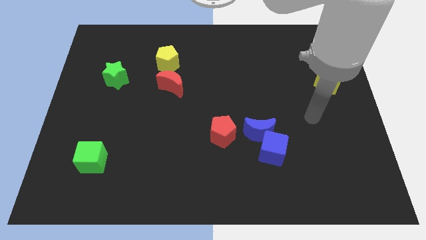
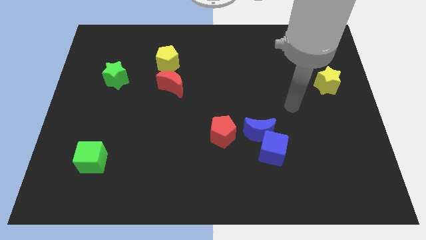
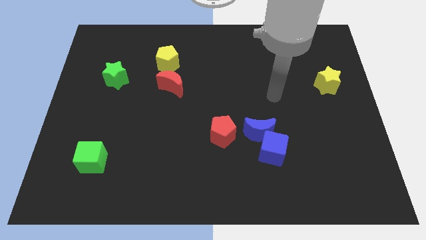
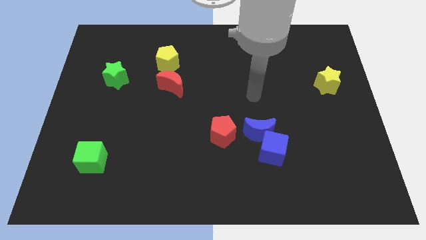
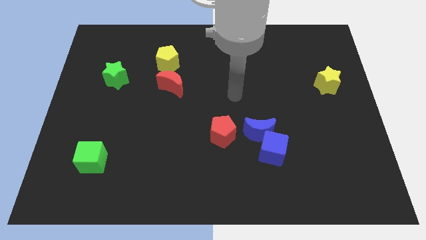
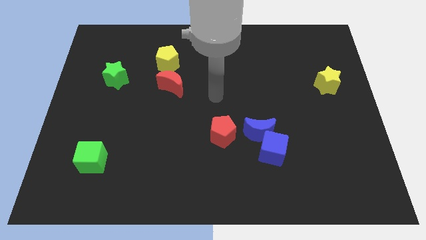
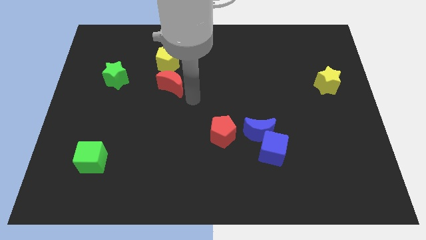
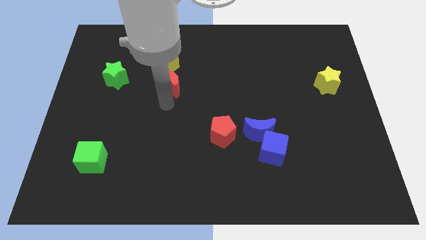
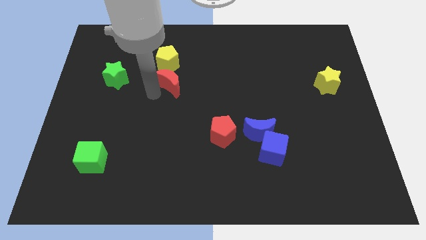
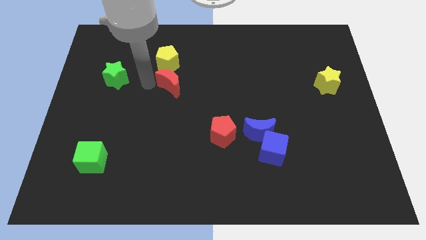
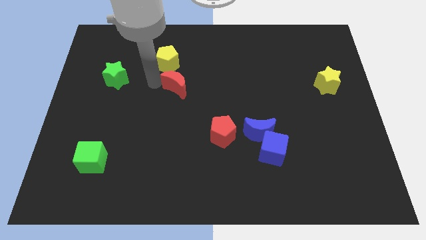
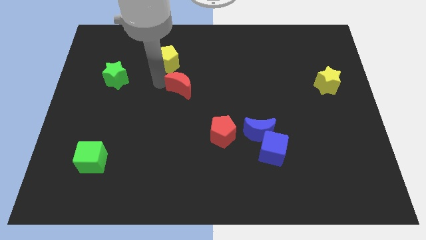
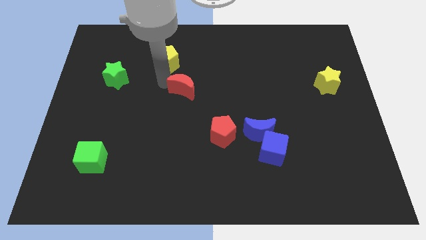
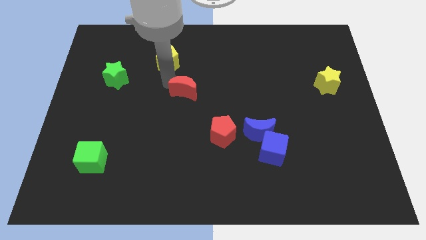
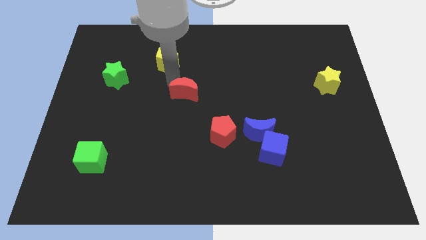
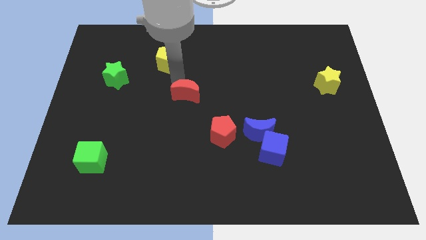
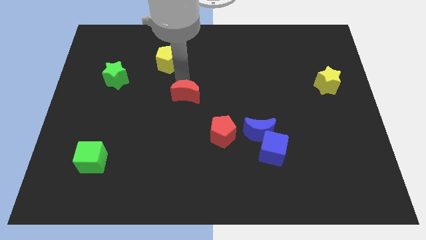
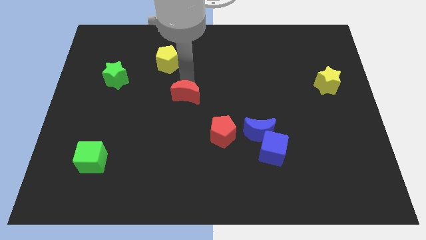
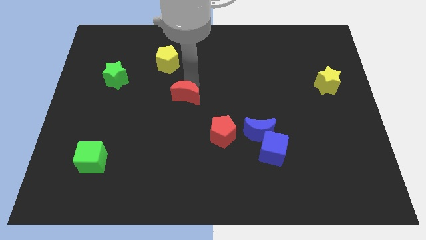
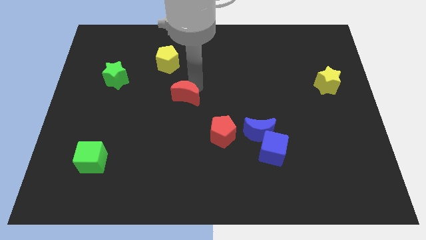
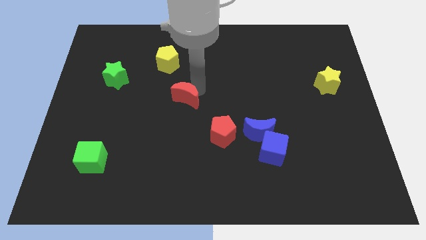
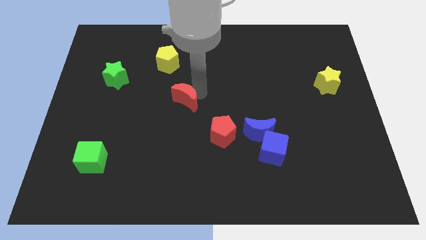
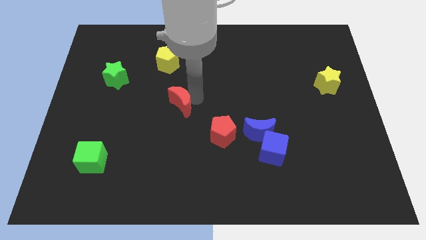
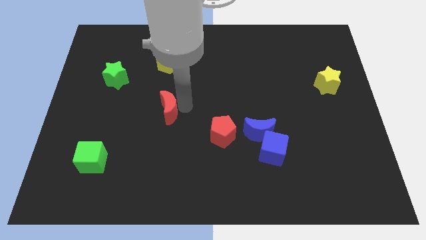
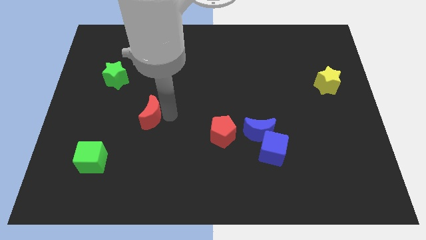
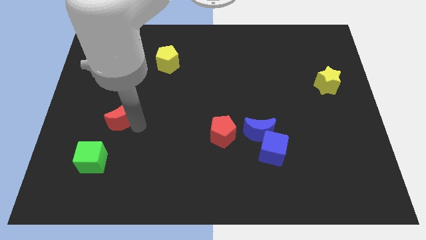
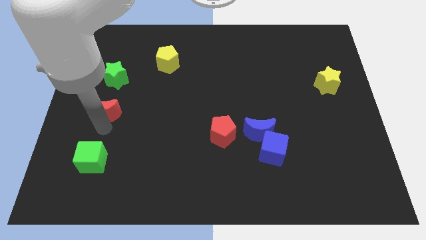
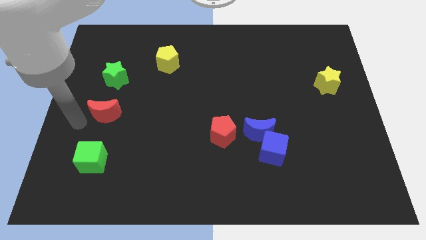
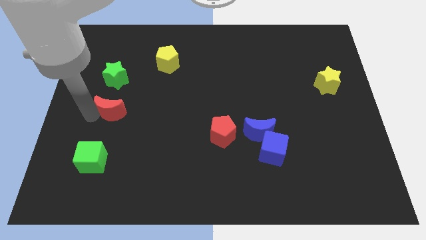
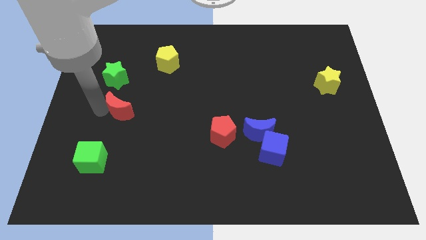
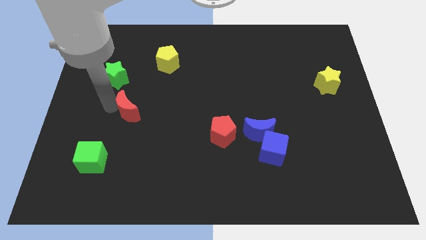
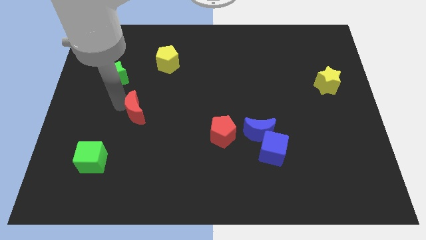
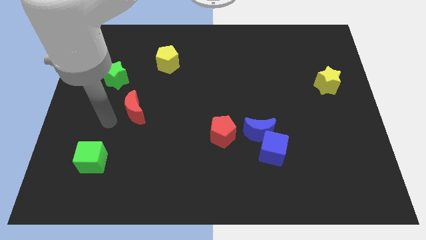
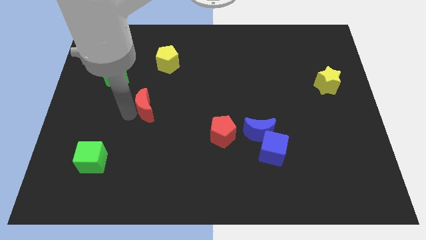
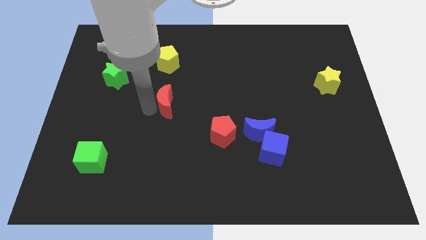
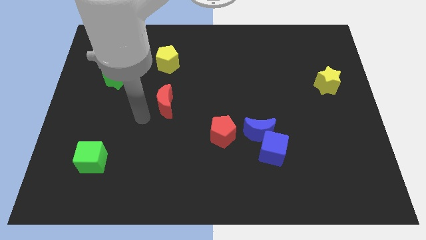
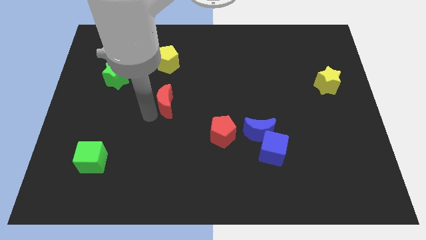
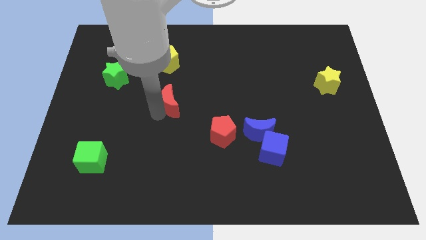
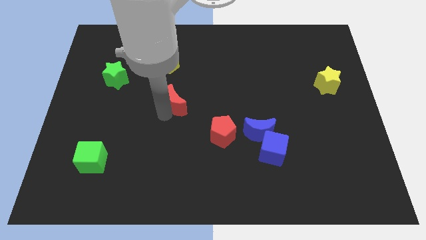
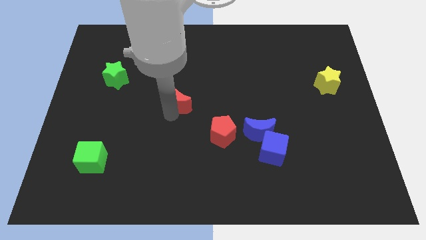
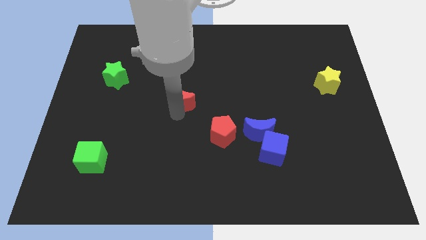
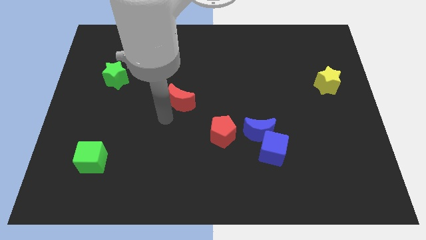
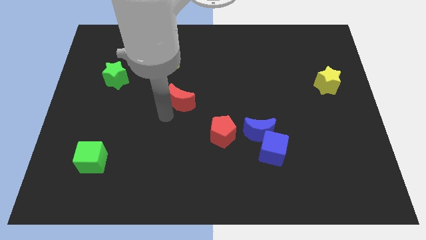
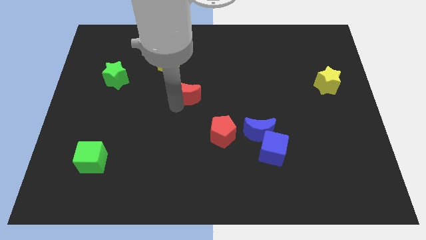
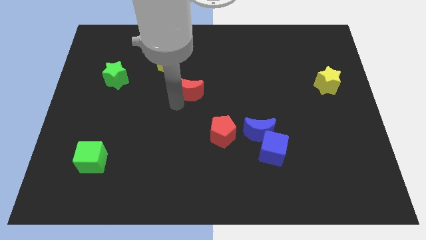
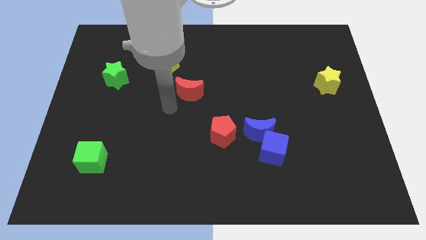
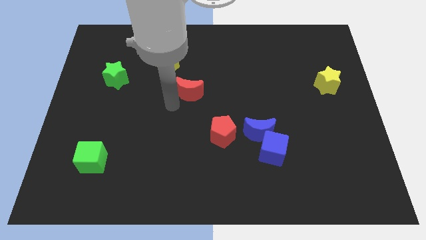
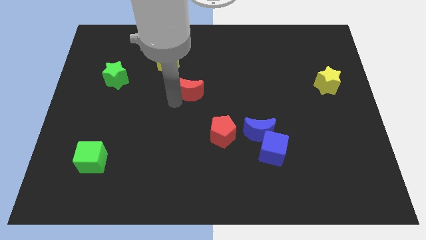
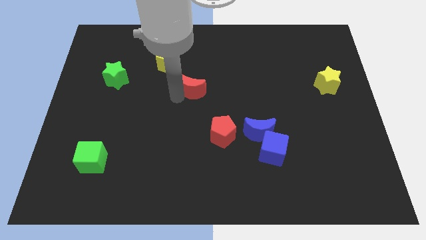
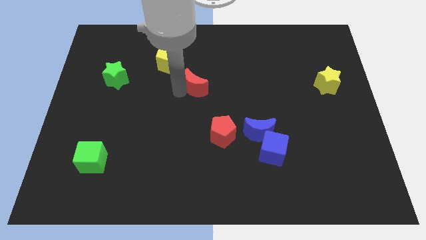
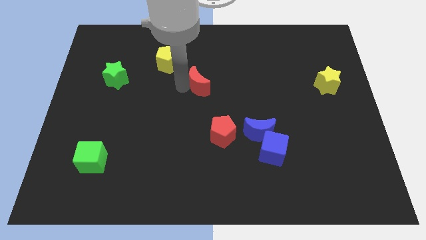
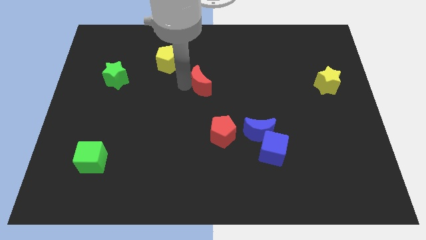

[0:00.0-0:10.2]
slightly slide the red moon to the right

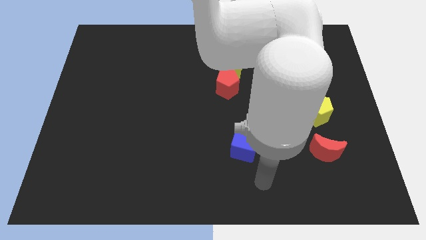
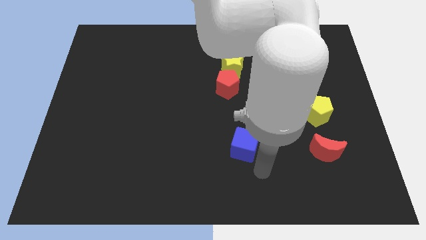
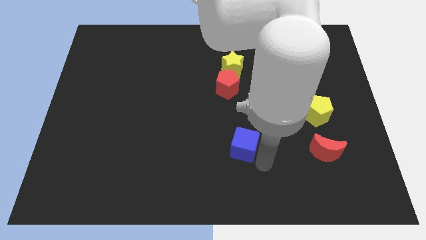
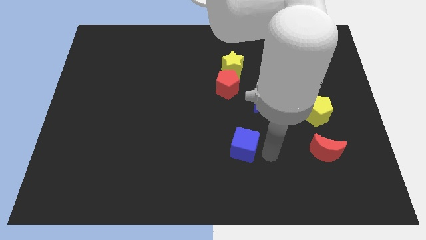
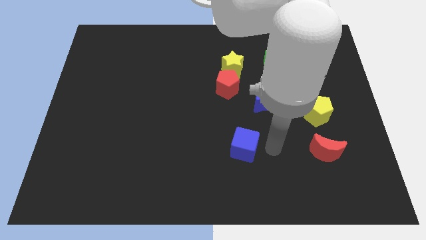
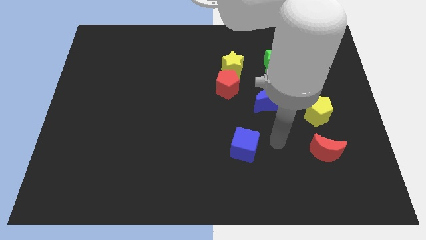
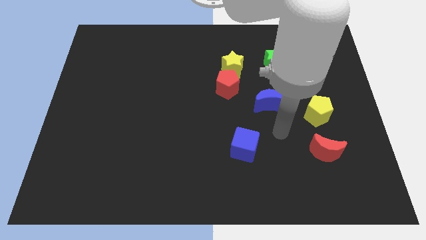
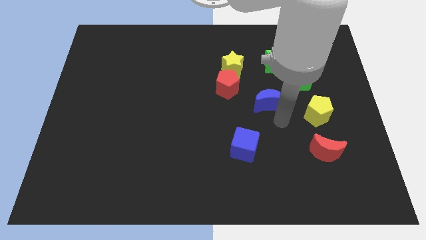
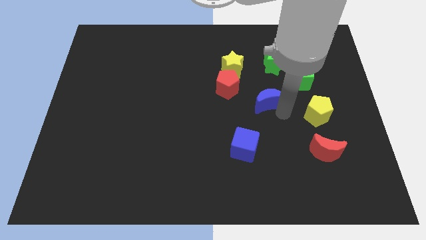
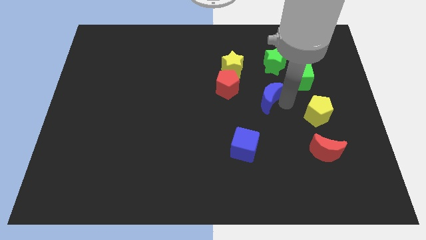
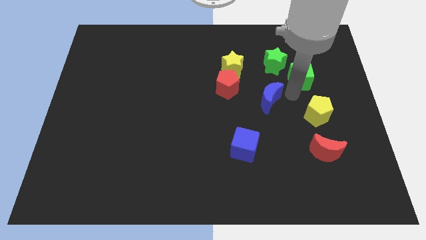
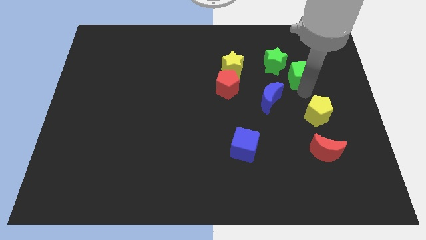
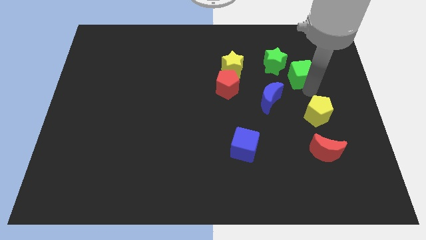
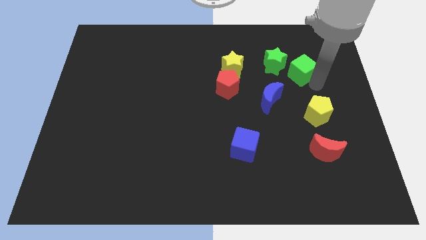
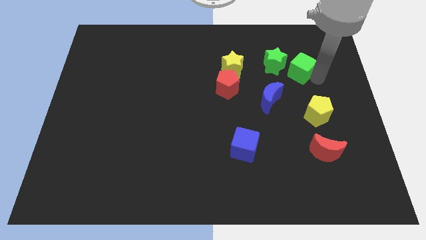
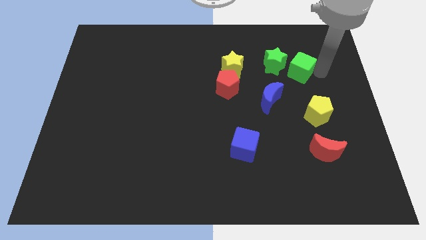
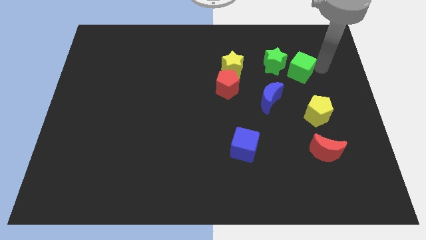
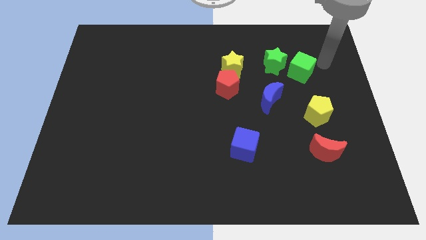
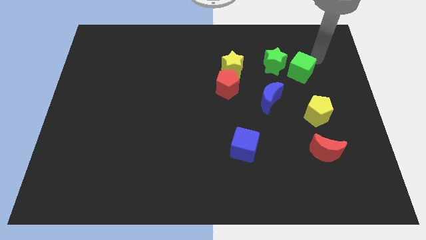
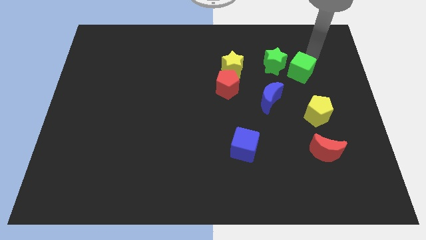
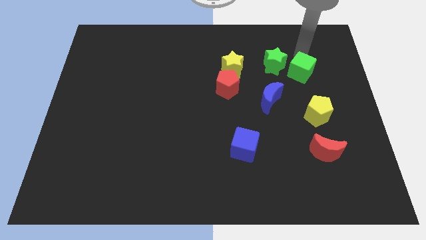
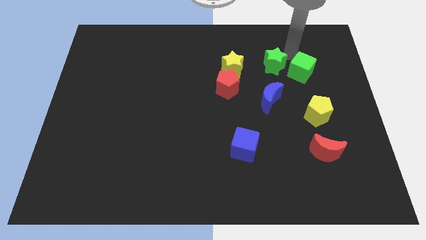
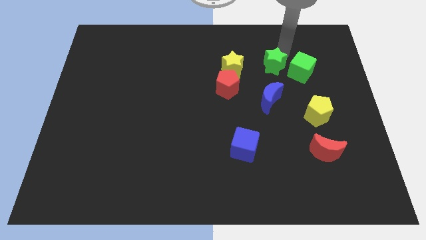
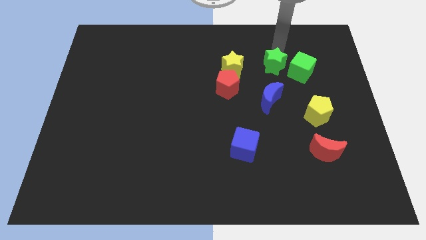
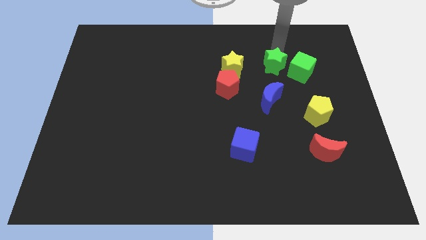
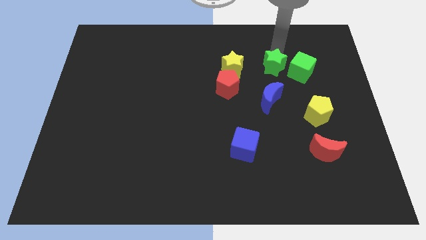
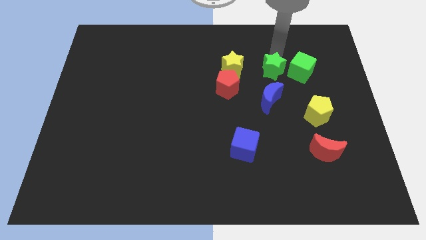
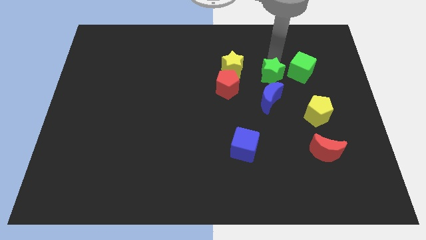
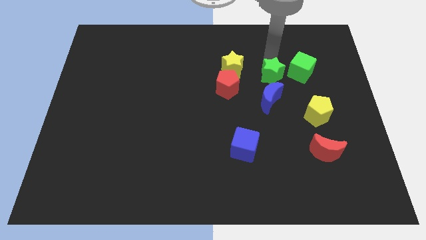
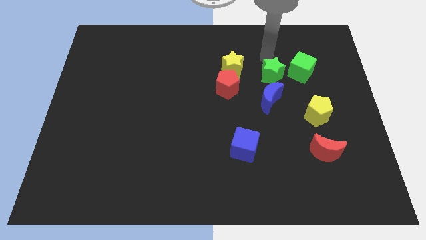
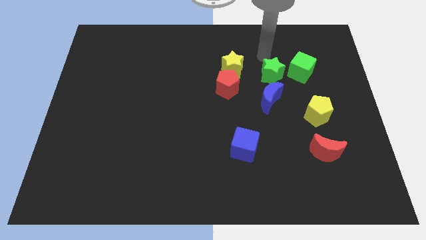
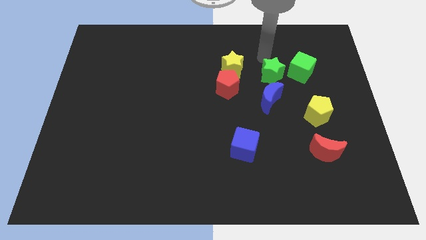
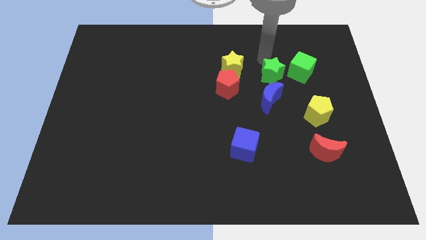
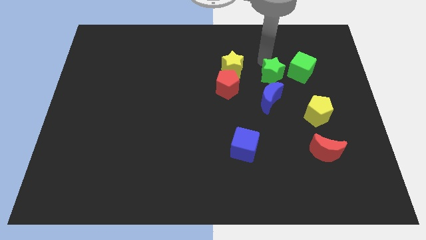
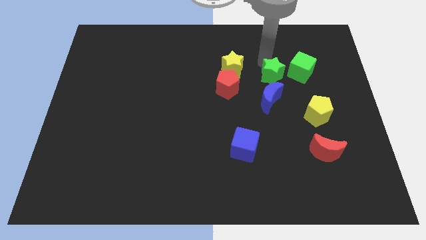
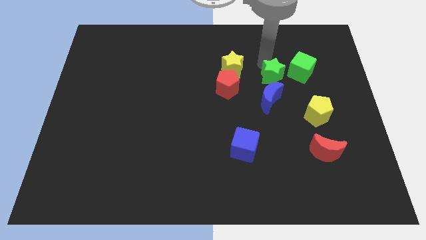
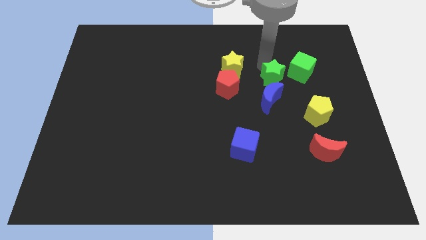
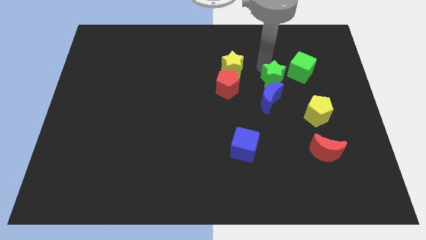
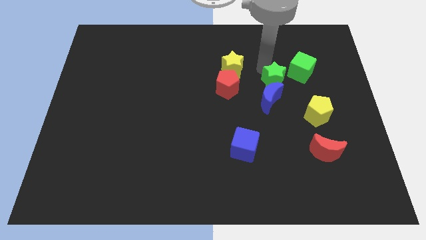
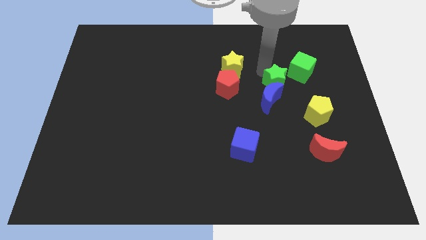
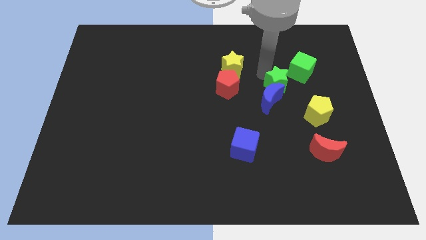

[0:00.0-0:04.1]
slightly push the green star down
